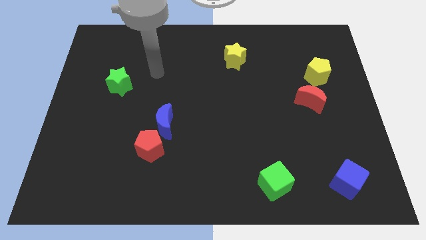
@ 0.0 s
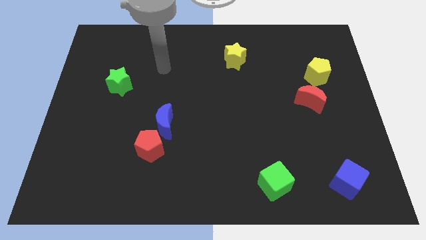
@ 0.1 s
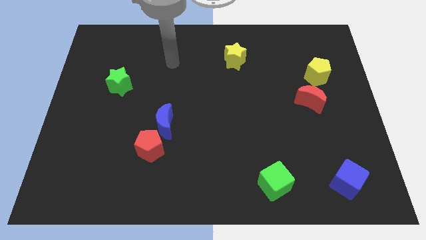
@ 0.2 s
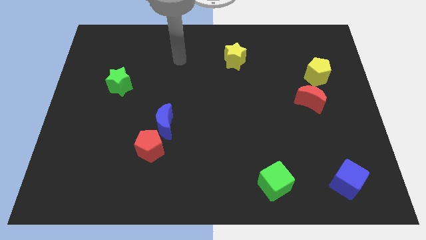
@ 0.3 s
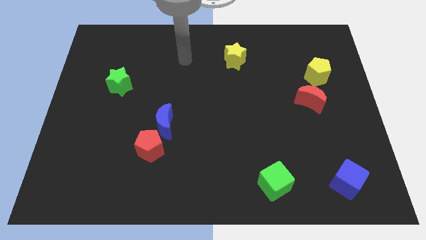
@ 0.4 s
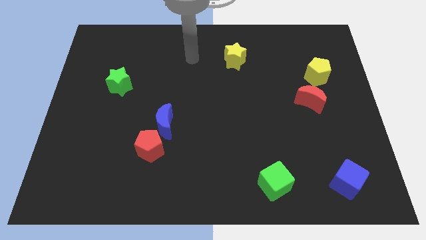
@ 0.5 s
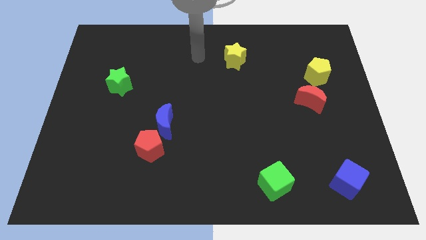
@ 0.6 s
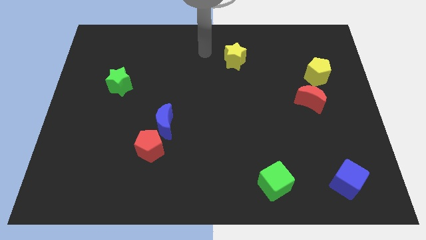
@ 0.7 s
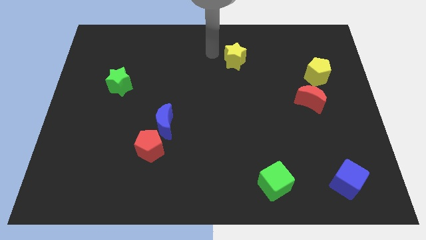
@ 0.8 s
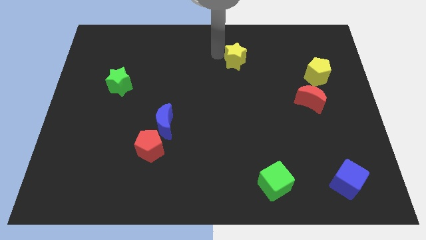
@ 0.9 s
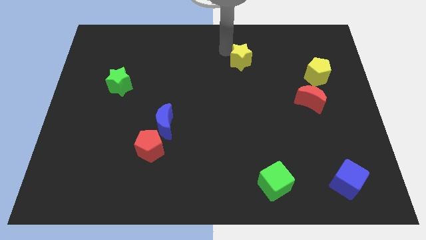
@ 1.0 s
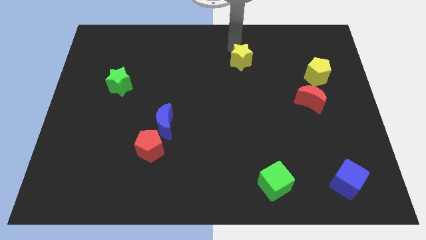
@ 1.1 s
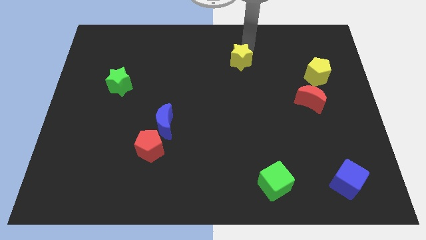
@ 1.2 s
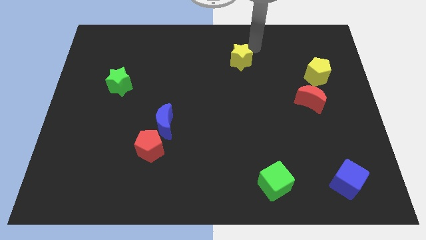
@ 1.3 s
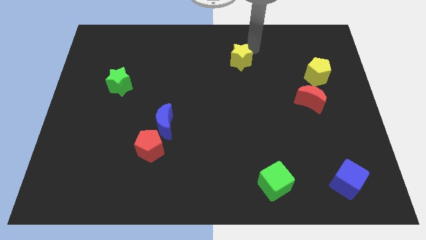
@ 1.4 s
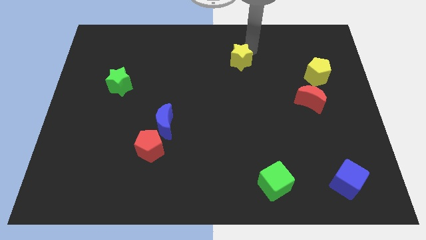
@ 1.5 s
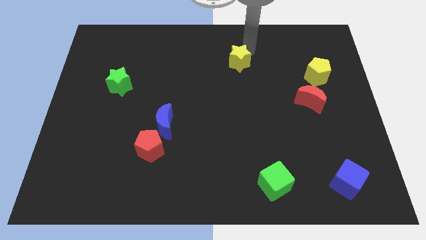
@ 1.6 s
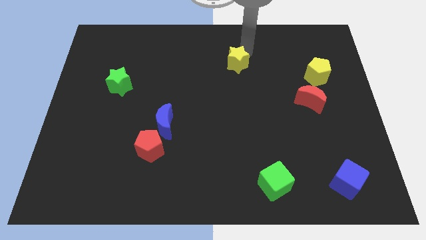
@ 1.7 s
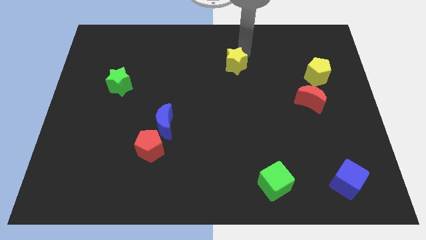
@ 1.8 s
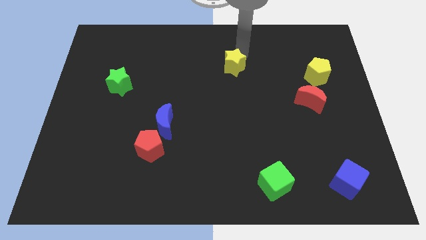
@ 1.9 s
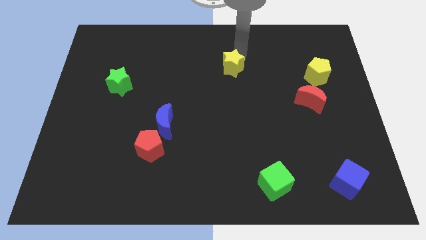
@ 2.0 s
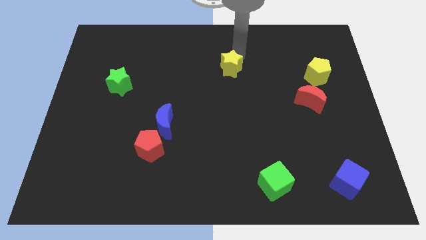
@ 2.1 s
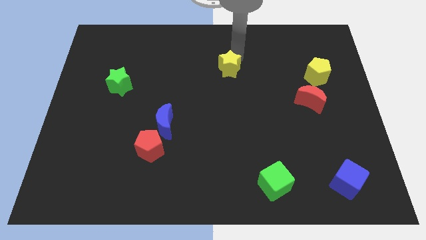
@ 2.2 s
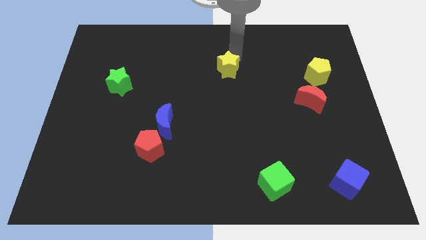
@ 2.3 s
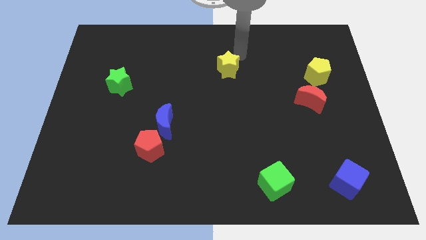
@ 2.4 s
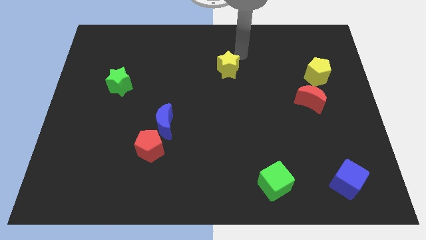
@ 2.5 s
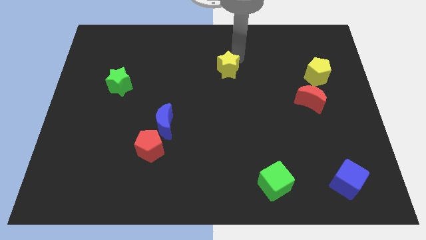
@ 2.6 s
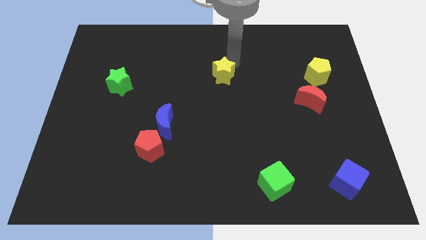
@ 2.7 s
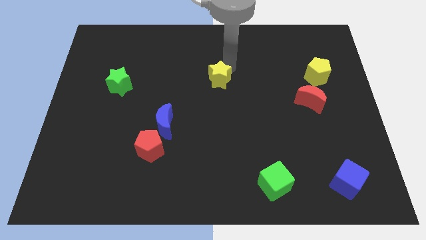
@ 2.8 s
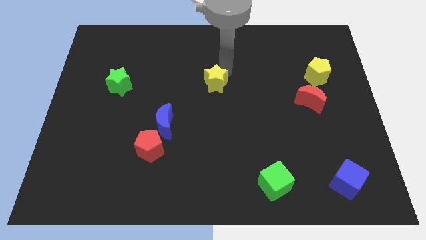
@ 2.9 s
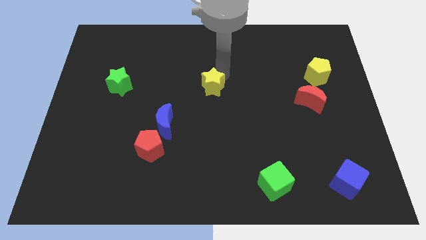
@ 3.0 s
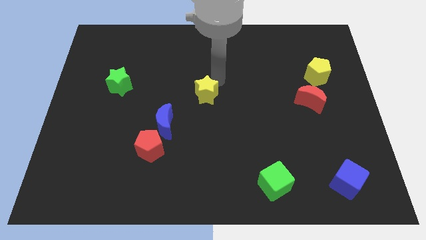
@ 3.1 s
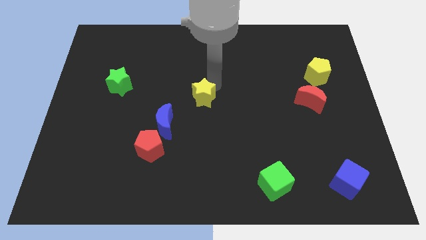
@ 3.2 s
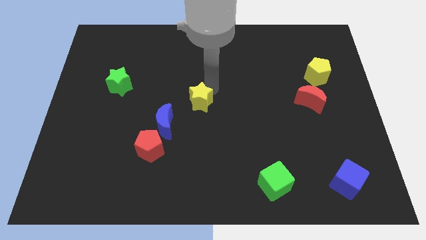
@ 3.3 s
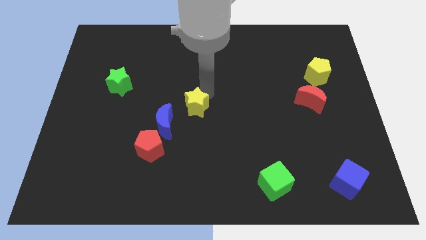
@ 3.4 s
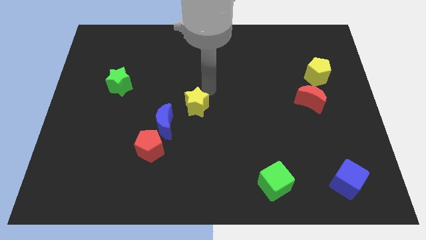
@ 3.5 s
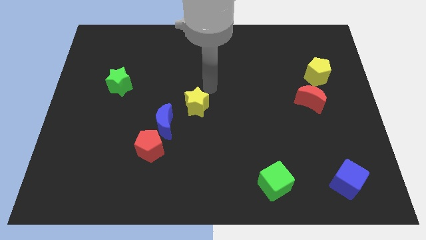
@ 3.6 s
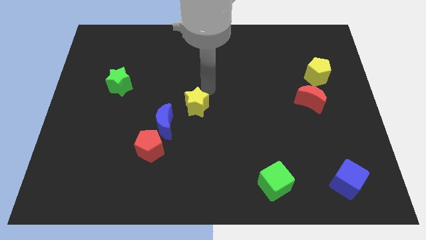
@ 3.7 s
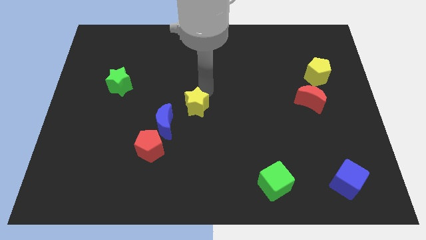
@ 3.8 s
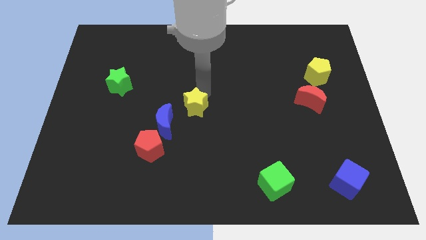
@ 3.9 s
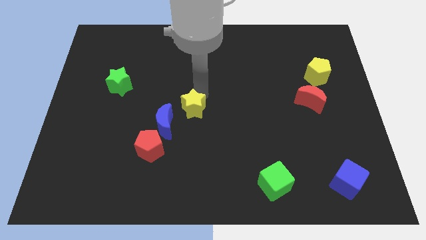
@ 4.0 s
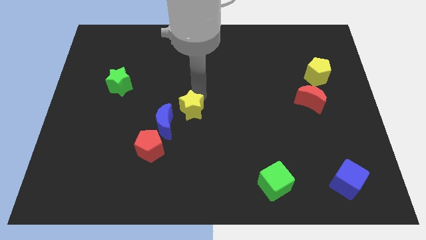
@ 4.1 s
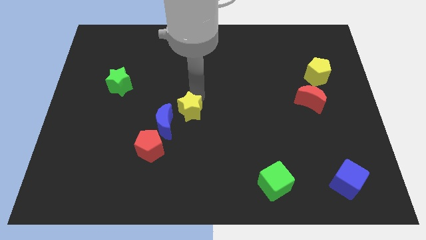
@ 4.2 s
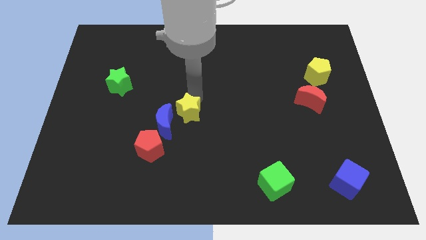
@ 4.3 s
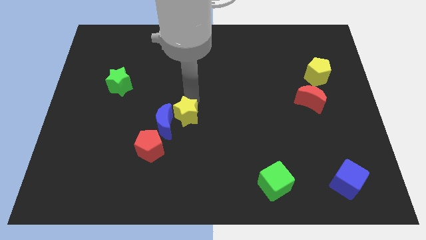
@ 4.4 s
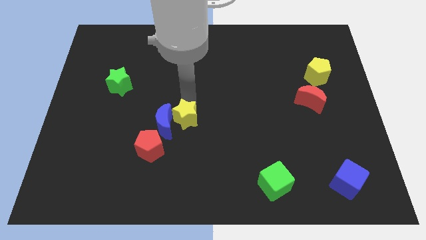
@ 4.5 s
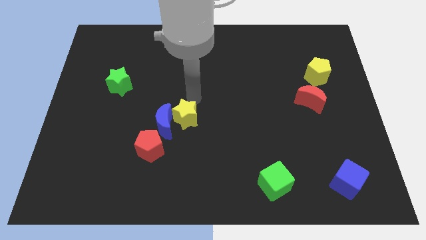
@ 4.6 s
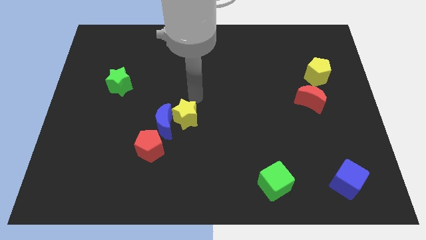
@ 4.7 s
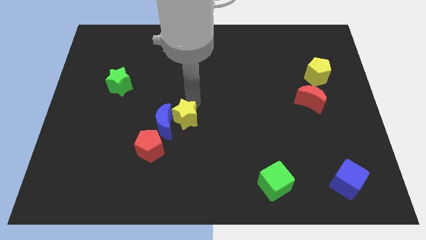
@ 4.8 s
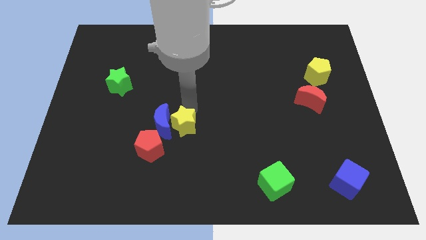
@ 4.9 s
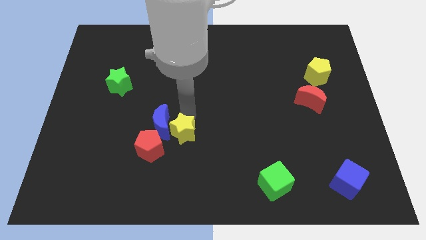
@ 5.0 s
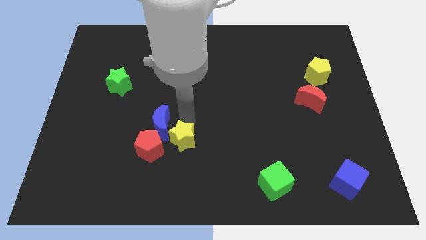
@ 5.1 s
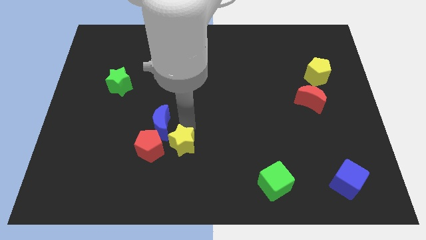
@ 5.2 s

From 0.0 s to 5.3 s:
push the yellow star to the bottom of the blue moon

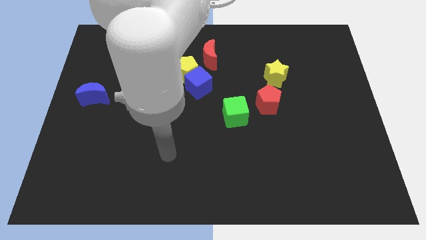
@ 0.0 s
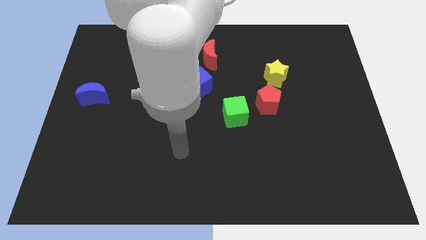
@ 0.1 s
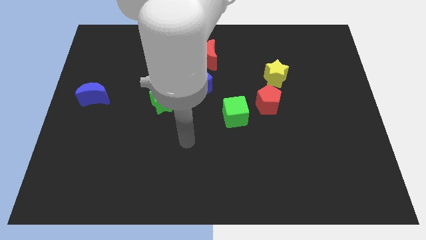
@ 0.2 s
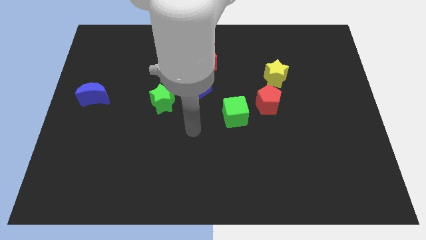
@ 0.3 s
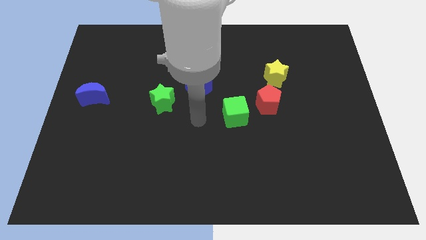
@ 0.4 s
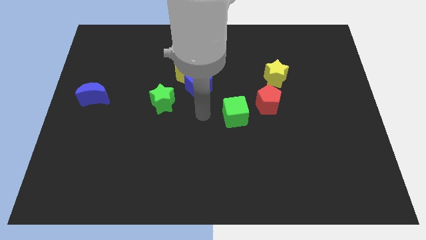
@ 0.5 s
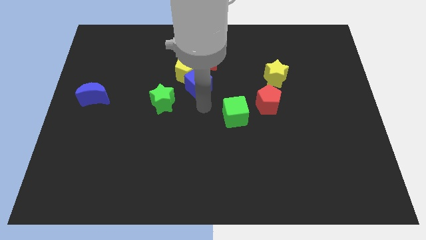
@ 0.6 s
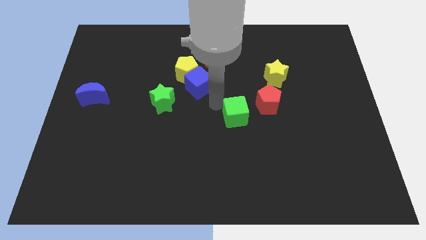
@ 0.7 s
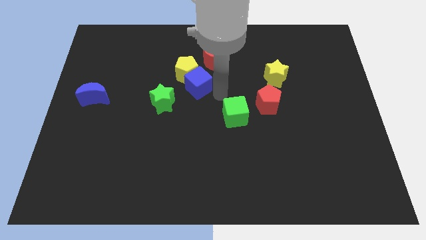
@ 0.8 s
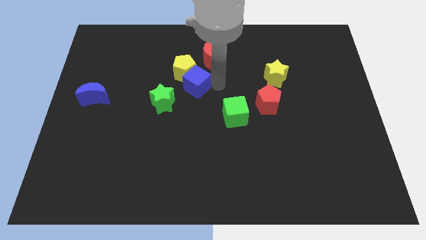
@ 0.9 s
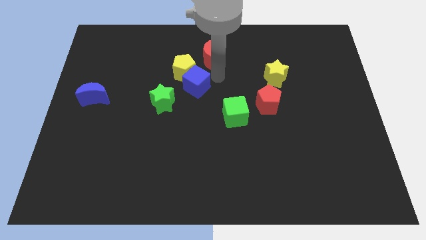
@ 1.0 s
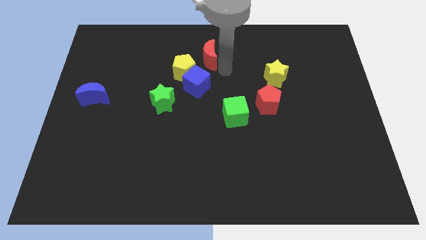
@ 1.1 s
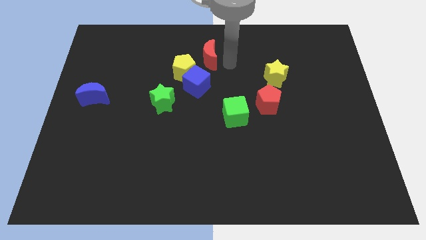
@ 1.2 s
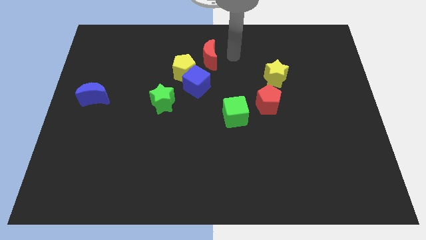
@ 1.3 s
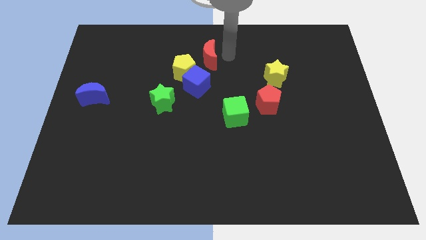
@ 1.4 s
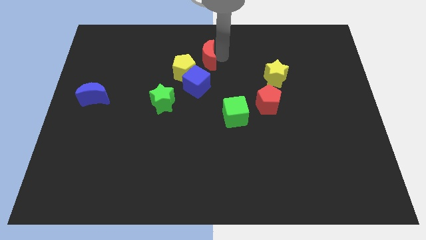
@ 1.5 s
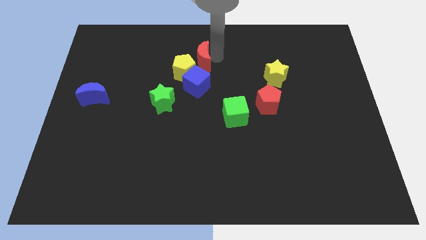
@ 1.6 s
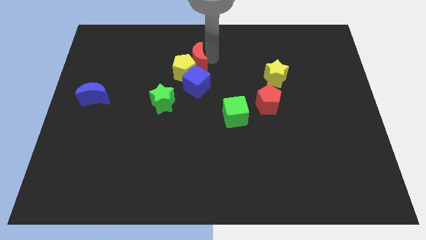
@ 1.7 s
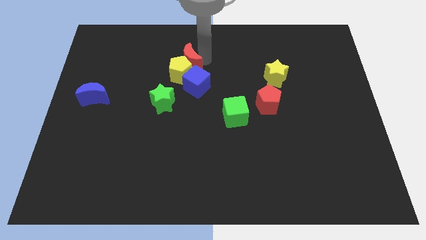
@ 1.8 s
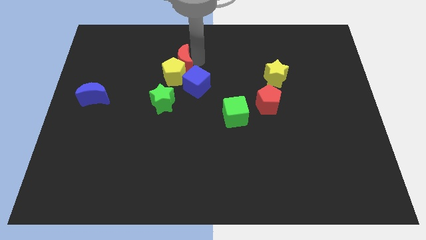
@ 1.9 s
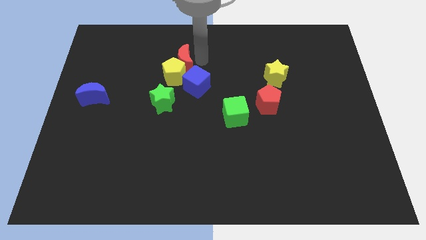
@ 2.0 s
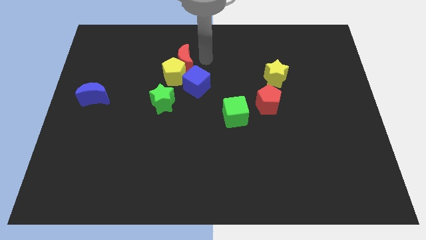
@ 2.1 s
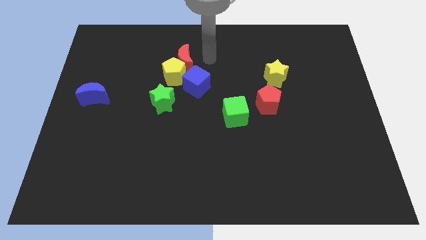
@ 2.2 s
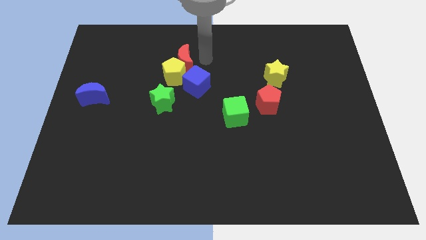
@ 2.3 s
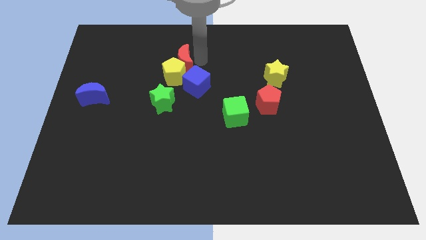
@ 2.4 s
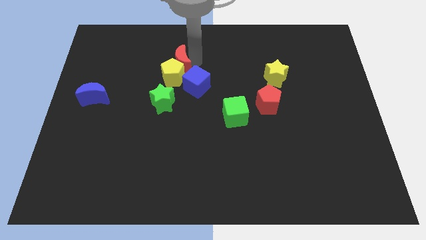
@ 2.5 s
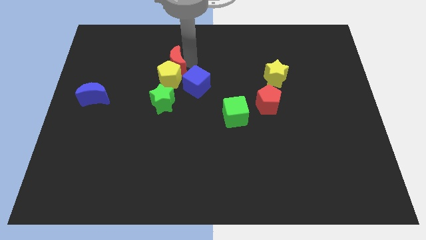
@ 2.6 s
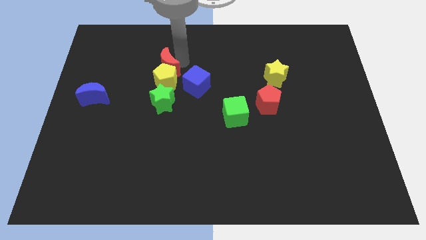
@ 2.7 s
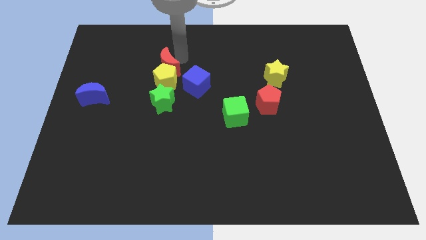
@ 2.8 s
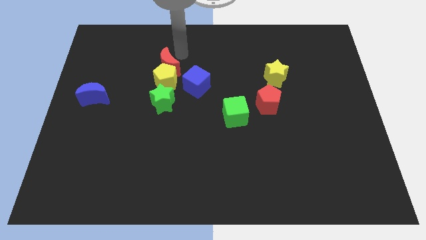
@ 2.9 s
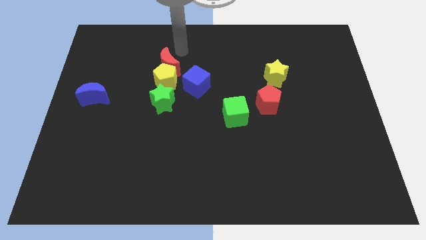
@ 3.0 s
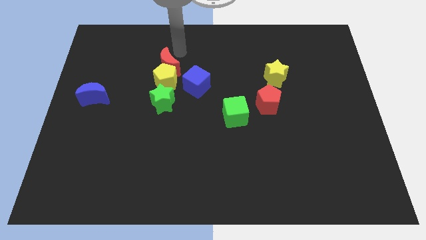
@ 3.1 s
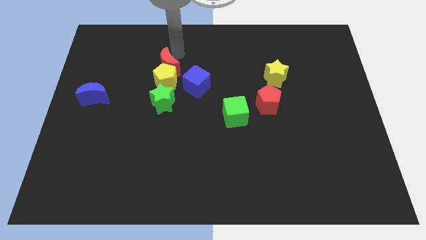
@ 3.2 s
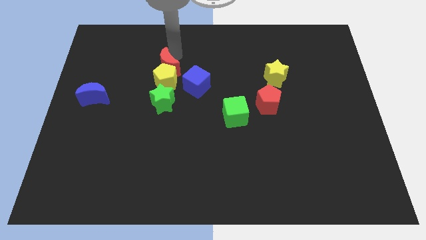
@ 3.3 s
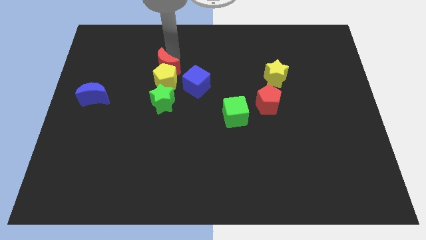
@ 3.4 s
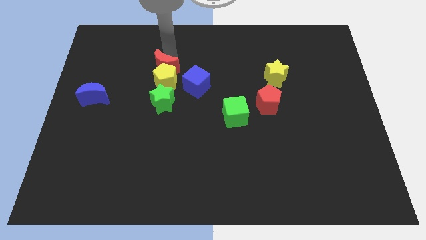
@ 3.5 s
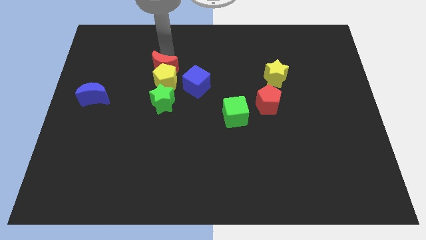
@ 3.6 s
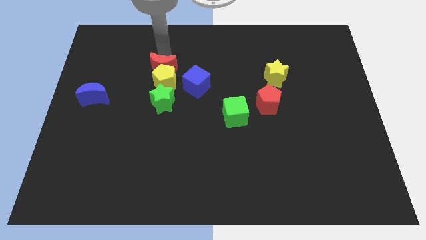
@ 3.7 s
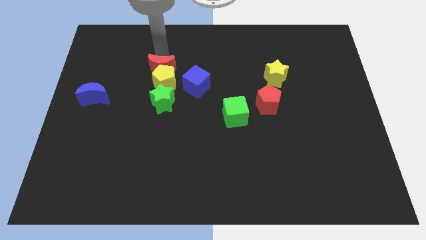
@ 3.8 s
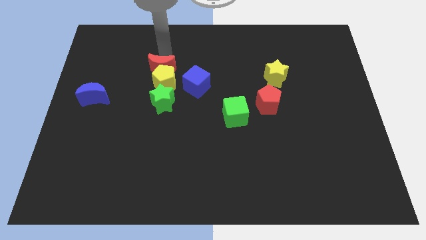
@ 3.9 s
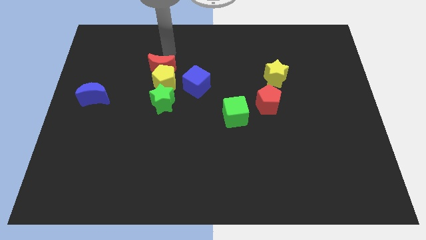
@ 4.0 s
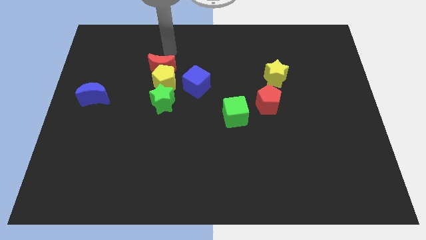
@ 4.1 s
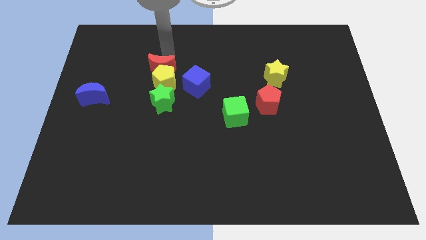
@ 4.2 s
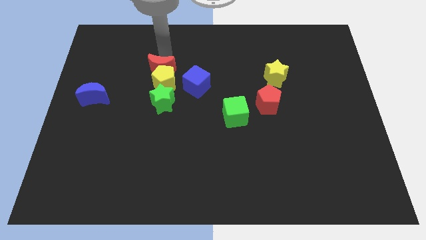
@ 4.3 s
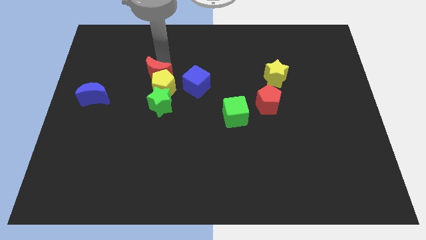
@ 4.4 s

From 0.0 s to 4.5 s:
push the red moon to the left side of the blue cube
